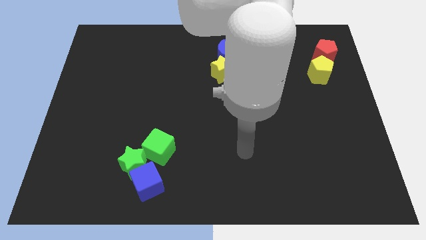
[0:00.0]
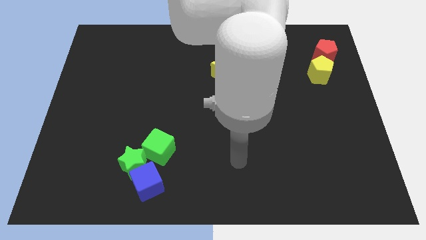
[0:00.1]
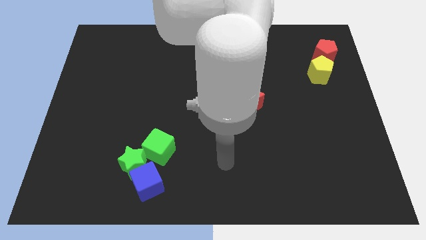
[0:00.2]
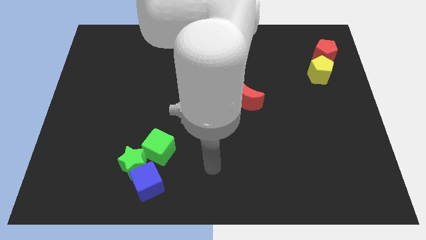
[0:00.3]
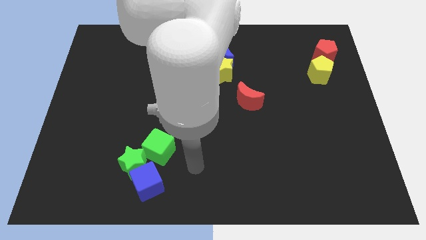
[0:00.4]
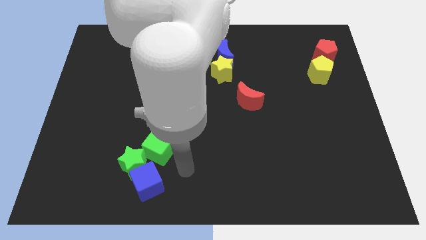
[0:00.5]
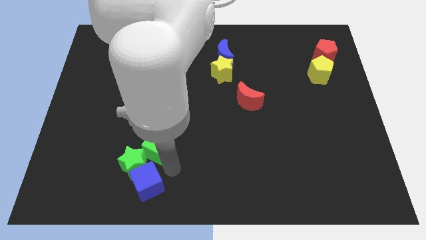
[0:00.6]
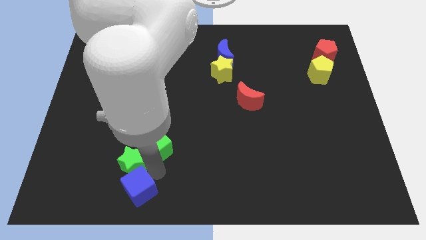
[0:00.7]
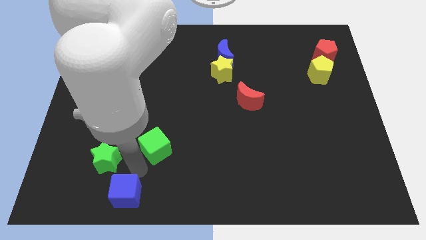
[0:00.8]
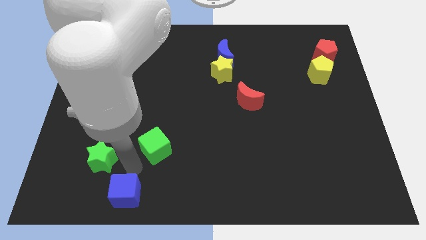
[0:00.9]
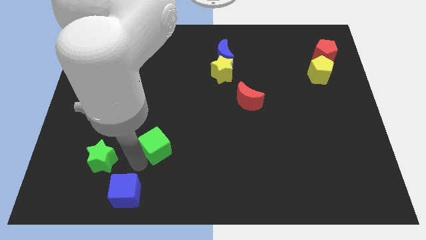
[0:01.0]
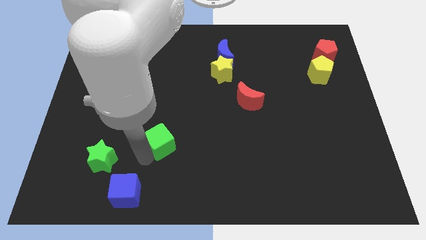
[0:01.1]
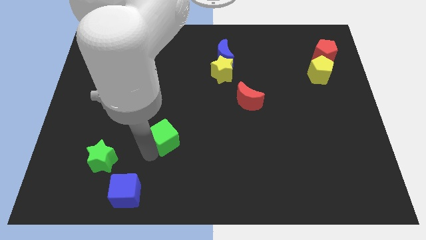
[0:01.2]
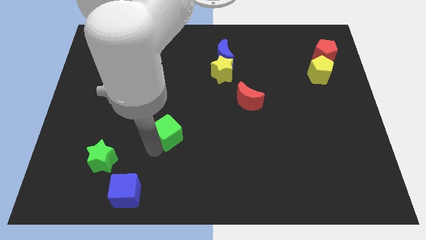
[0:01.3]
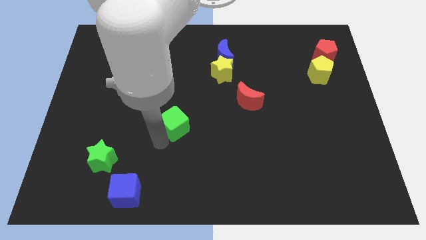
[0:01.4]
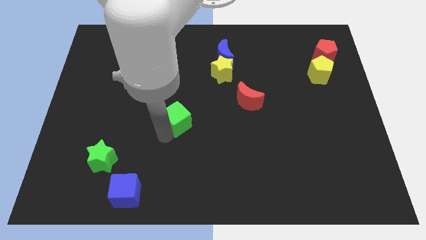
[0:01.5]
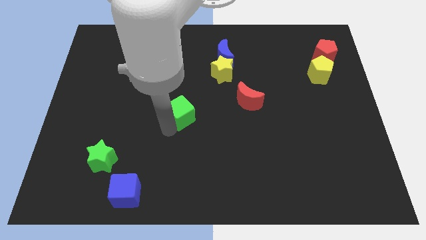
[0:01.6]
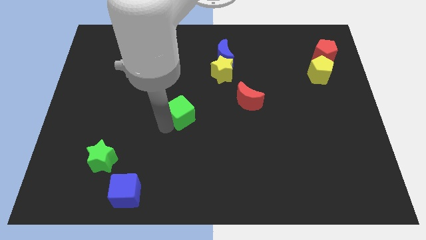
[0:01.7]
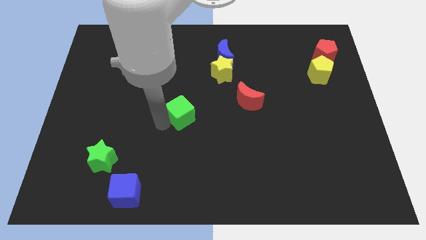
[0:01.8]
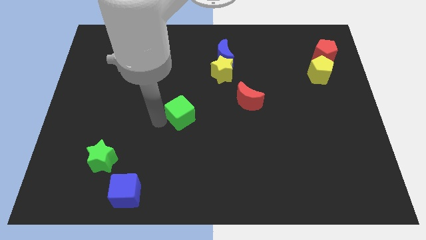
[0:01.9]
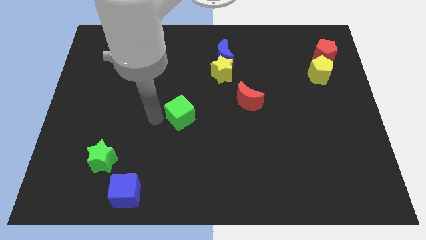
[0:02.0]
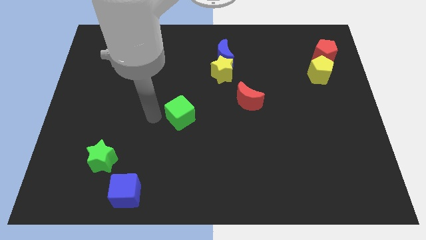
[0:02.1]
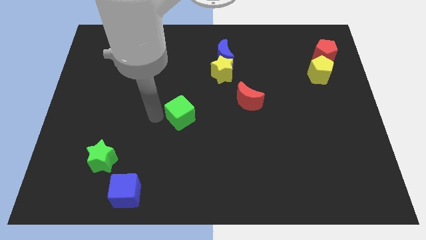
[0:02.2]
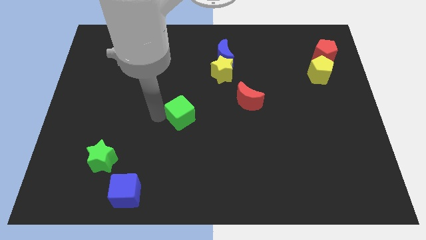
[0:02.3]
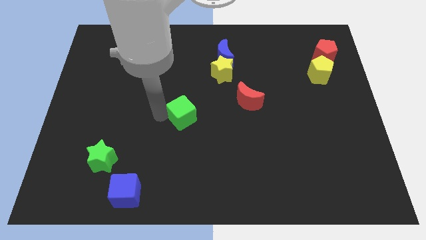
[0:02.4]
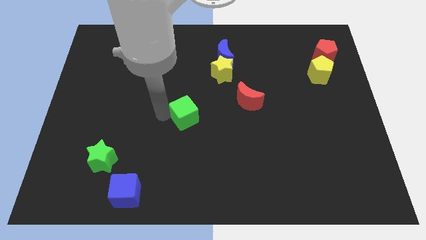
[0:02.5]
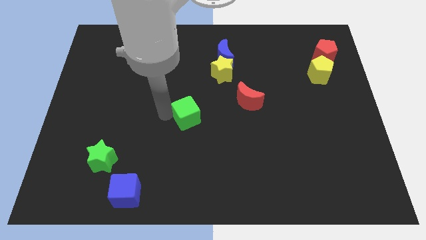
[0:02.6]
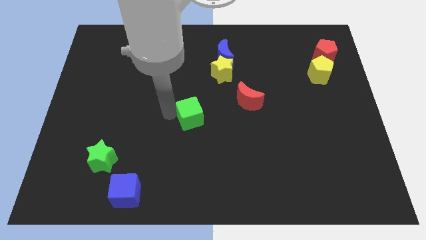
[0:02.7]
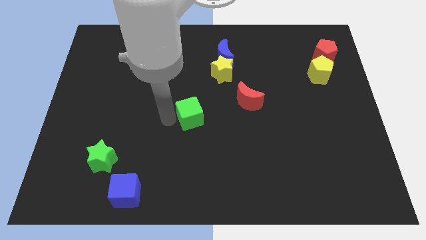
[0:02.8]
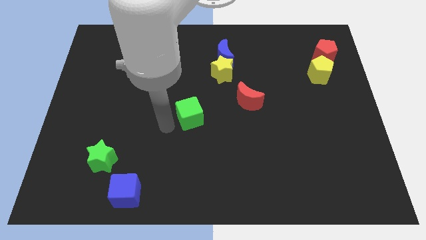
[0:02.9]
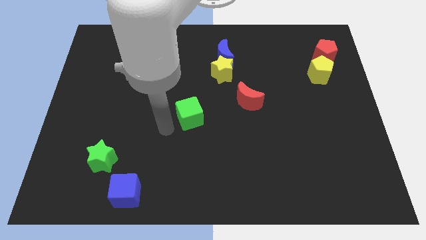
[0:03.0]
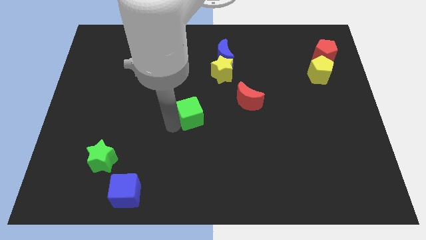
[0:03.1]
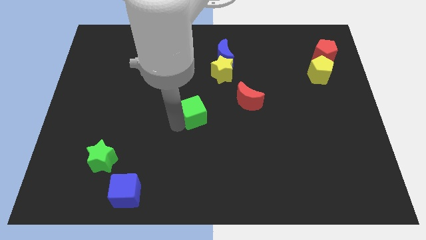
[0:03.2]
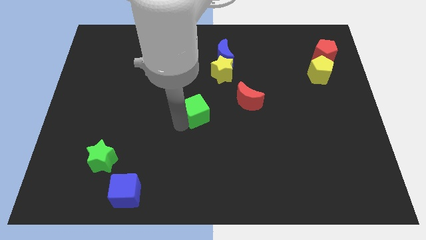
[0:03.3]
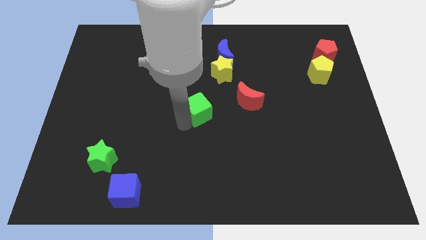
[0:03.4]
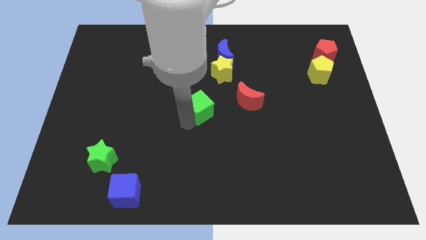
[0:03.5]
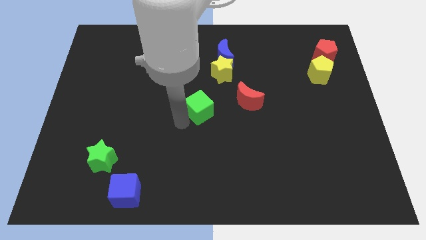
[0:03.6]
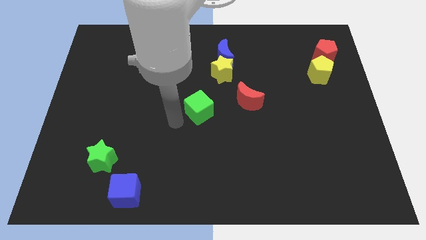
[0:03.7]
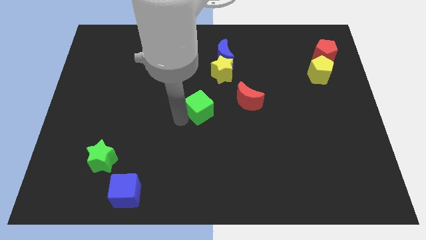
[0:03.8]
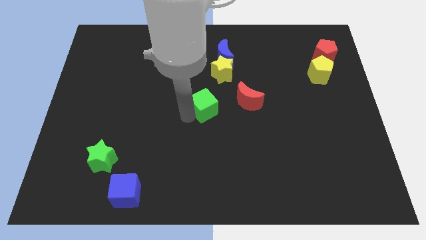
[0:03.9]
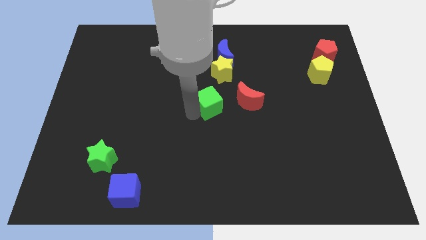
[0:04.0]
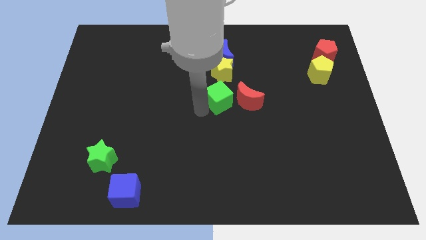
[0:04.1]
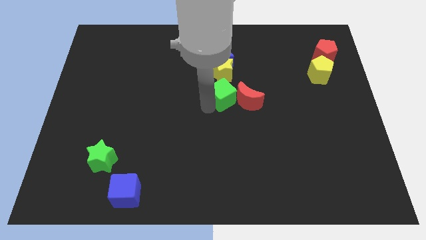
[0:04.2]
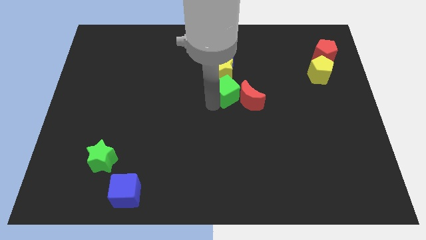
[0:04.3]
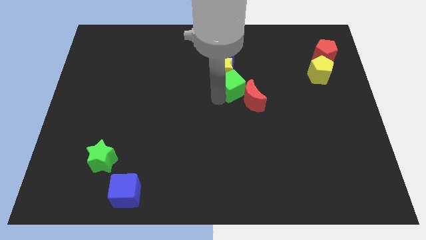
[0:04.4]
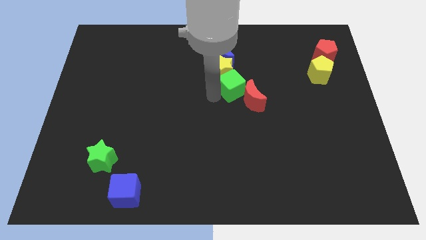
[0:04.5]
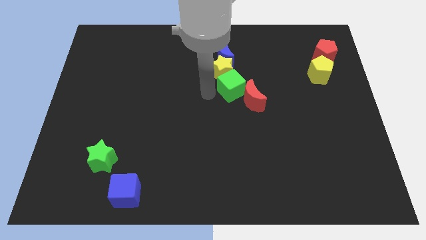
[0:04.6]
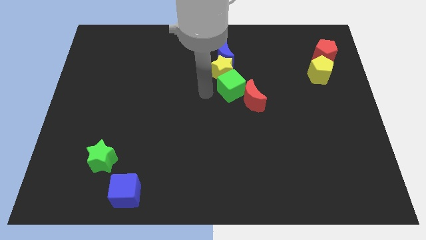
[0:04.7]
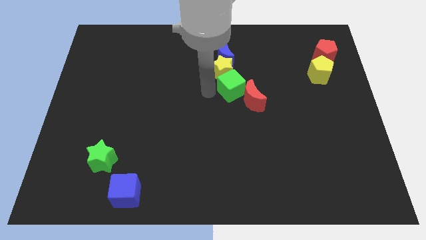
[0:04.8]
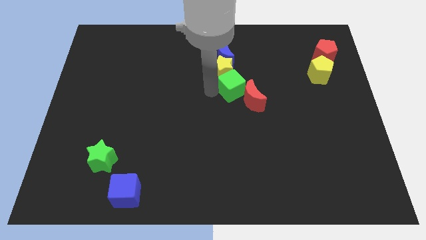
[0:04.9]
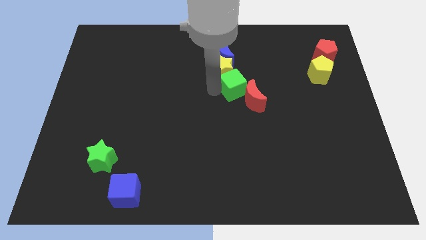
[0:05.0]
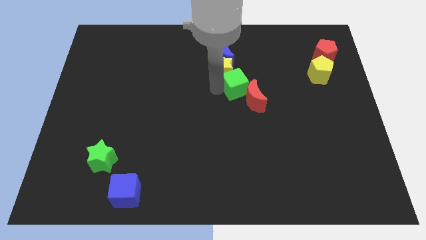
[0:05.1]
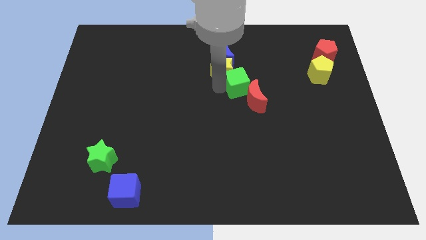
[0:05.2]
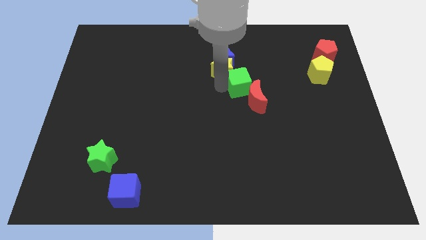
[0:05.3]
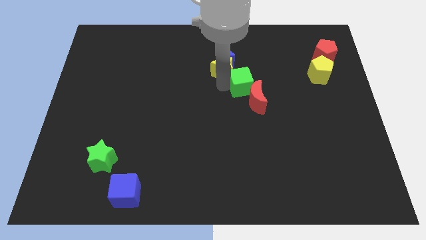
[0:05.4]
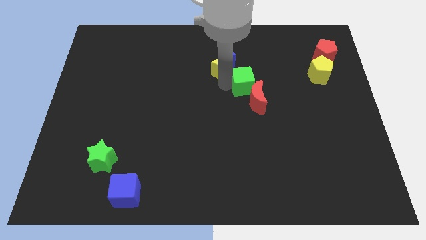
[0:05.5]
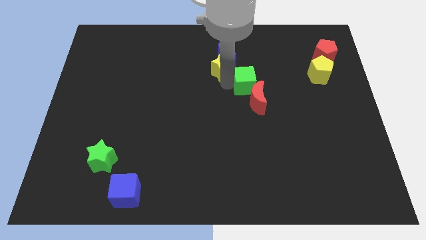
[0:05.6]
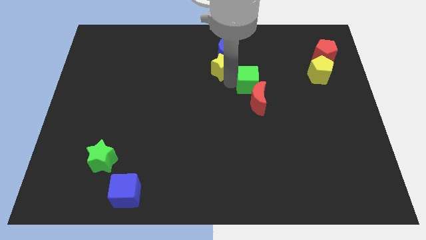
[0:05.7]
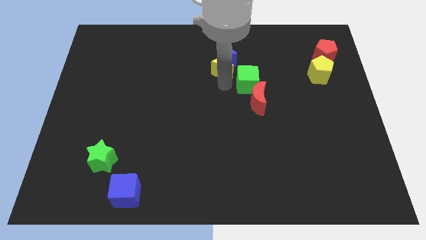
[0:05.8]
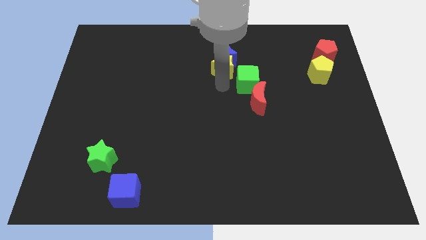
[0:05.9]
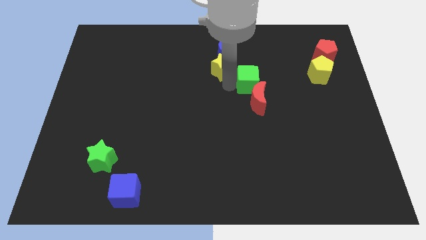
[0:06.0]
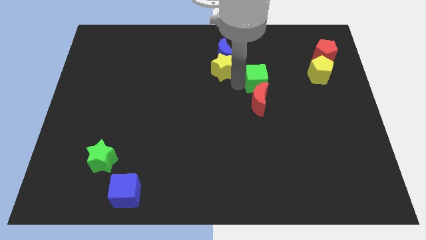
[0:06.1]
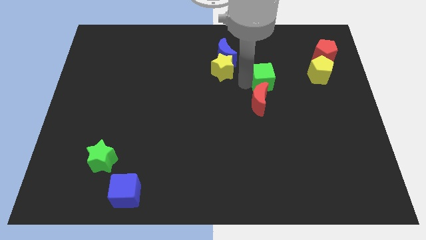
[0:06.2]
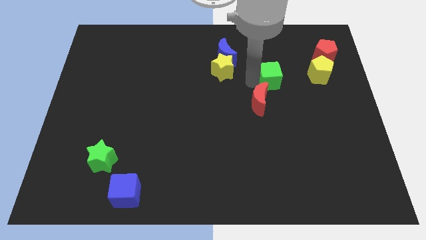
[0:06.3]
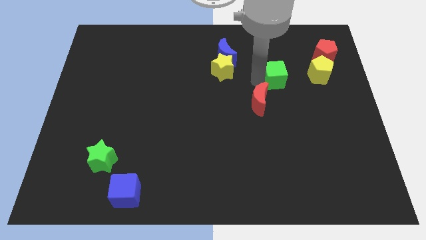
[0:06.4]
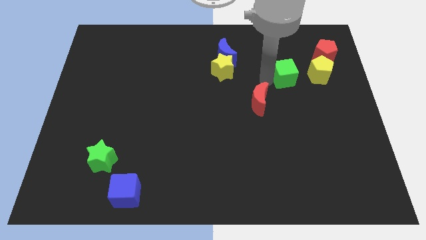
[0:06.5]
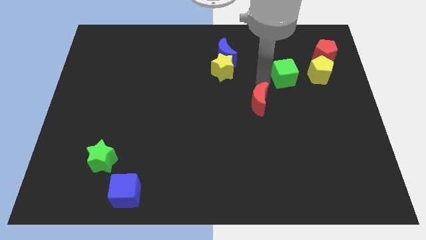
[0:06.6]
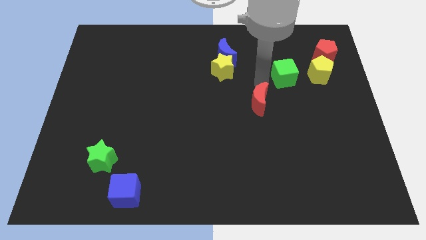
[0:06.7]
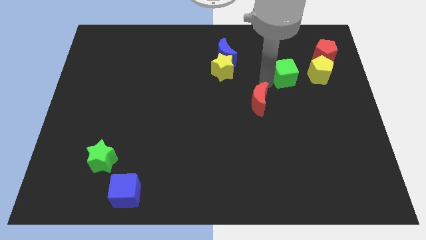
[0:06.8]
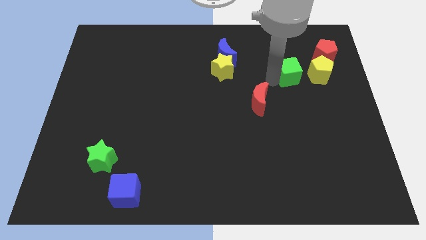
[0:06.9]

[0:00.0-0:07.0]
move the green cube to the bottom left of the red pentagon

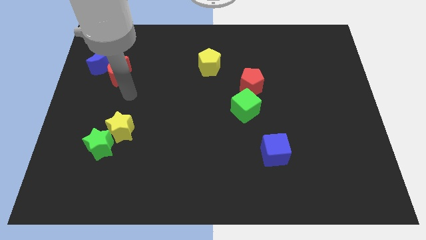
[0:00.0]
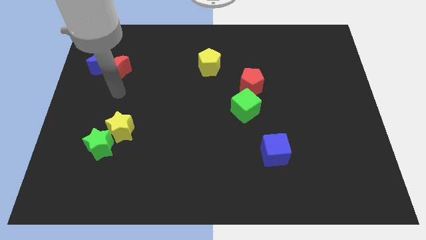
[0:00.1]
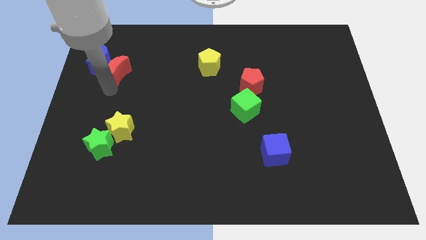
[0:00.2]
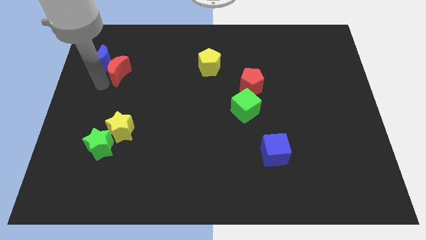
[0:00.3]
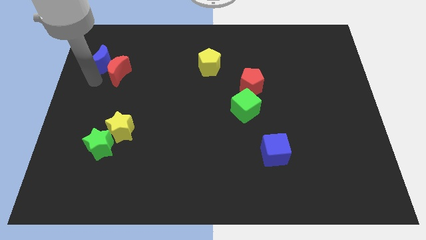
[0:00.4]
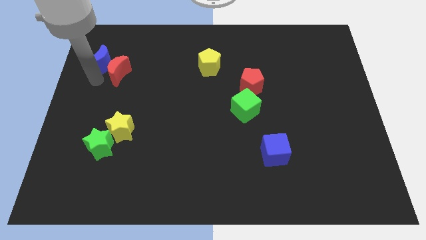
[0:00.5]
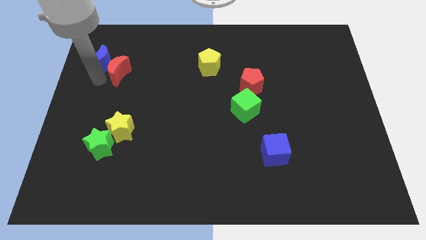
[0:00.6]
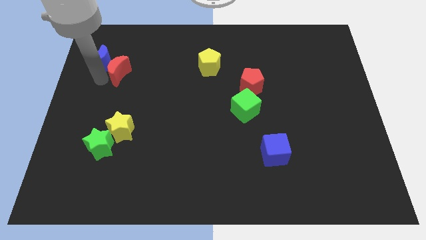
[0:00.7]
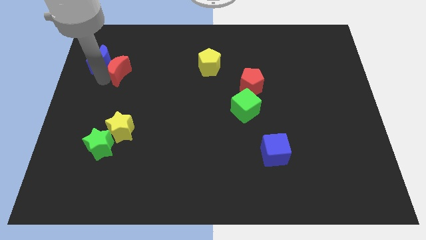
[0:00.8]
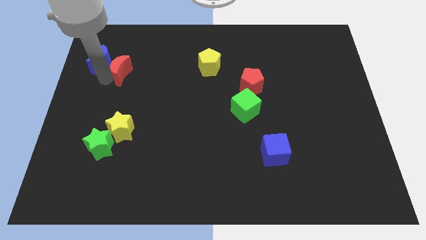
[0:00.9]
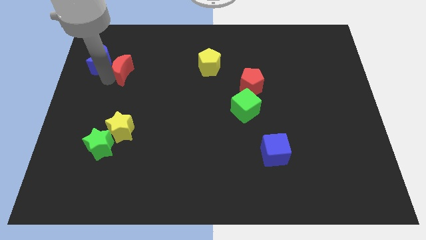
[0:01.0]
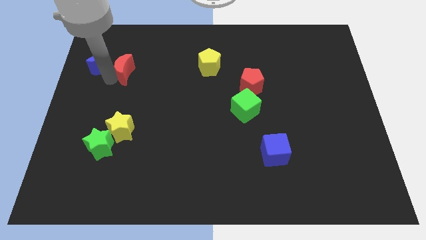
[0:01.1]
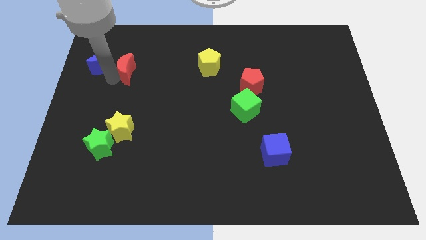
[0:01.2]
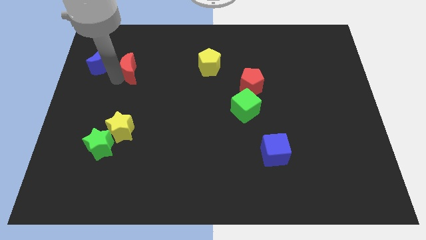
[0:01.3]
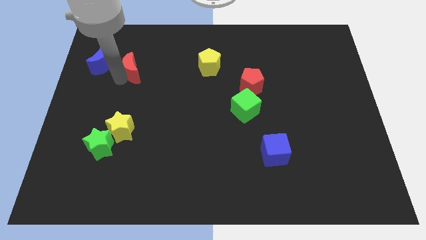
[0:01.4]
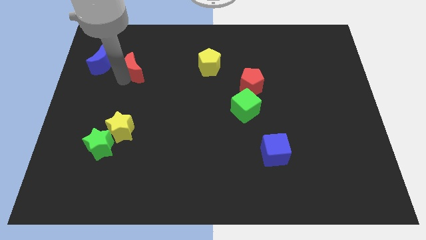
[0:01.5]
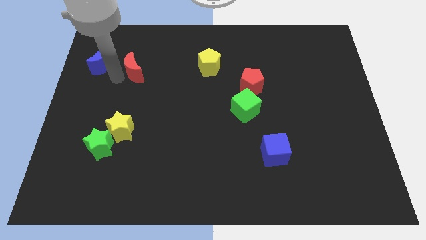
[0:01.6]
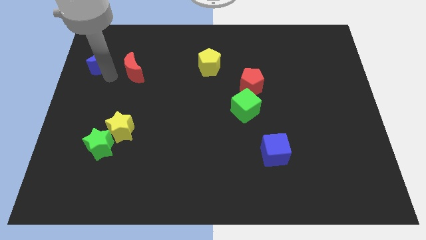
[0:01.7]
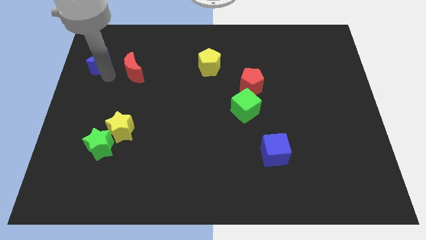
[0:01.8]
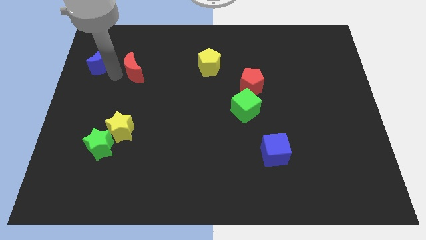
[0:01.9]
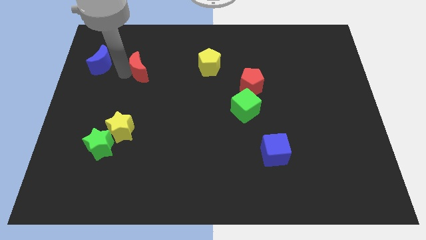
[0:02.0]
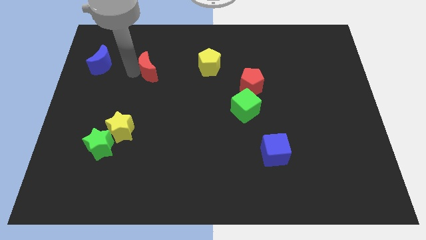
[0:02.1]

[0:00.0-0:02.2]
put the red moon to the left of the yellow pentagon
